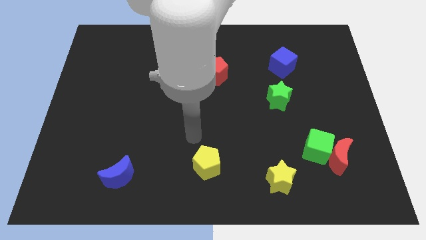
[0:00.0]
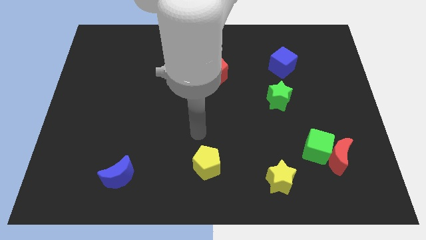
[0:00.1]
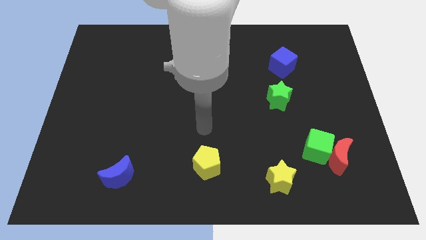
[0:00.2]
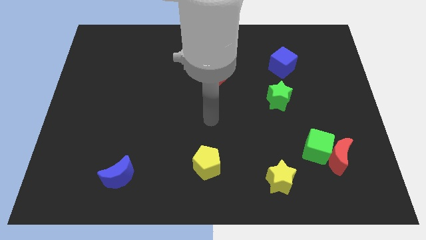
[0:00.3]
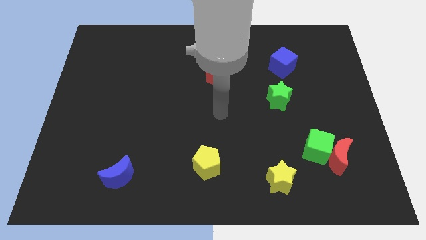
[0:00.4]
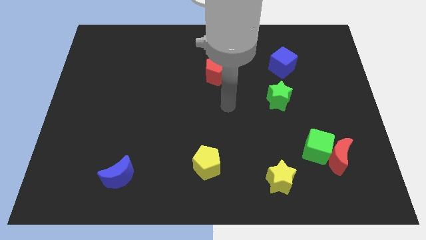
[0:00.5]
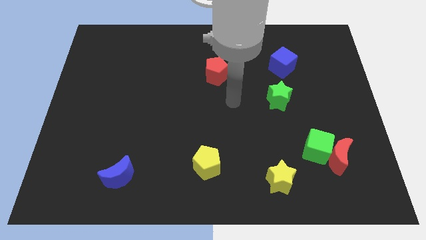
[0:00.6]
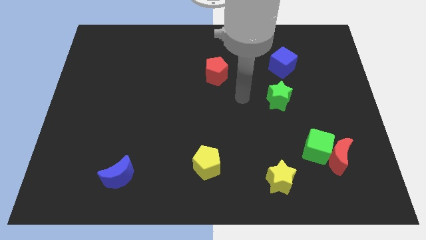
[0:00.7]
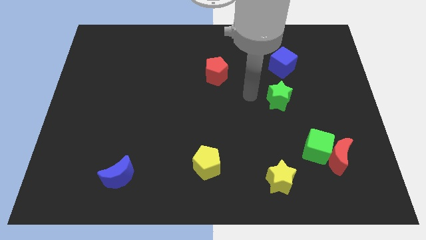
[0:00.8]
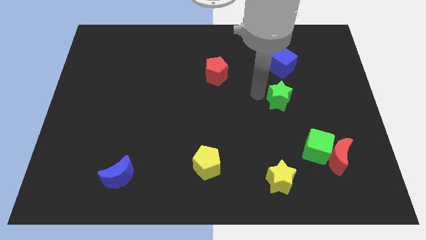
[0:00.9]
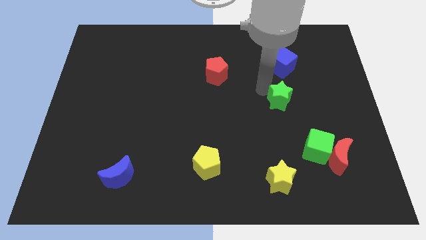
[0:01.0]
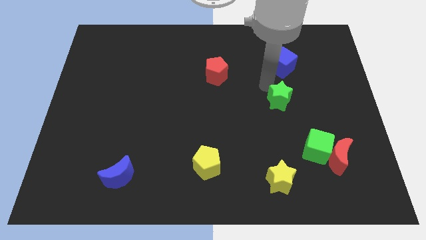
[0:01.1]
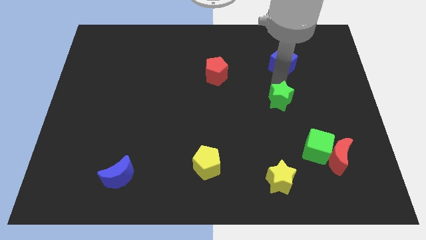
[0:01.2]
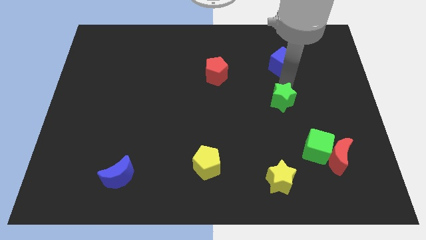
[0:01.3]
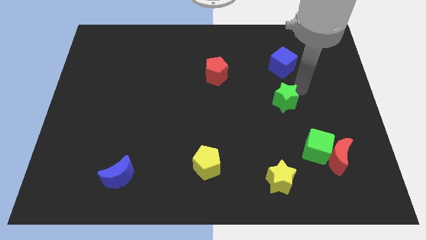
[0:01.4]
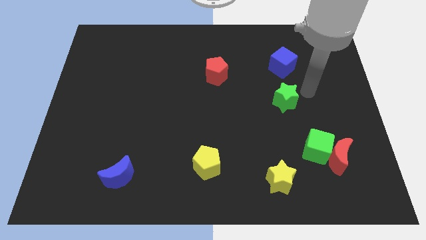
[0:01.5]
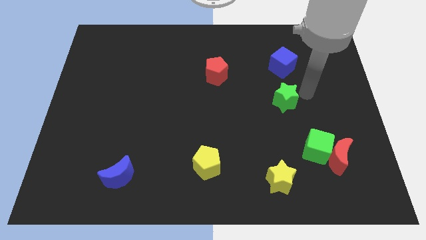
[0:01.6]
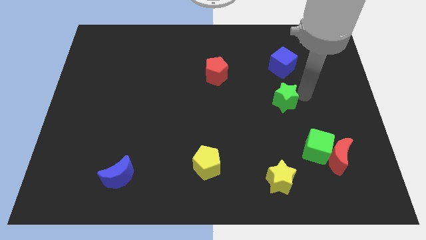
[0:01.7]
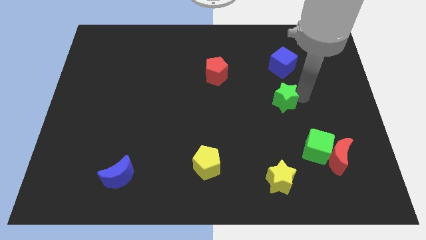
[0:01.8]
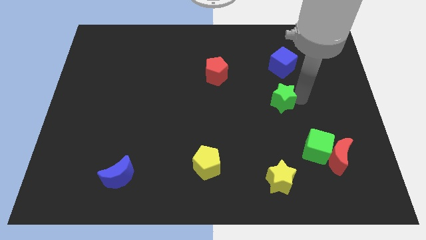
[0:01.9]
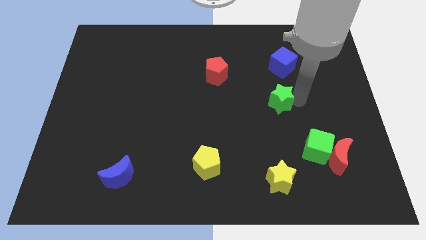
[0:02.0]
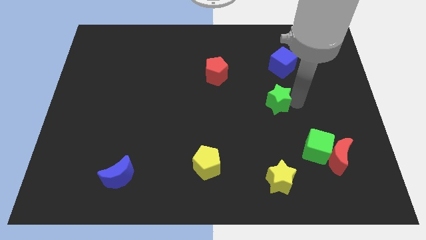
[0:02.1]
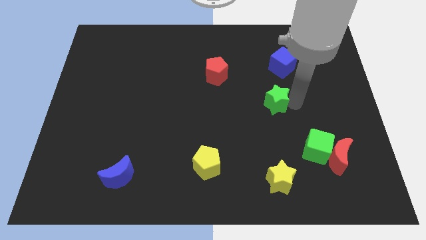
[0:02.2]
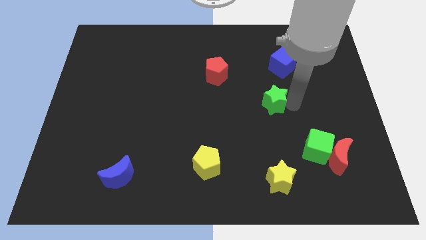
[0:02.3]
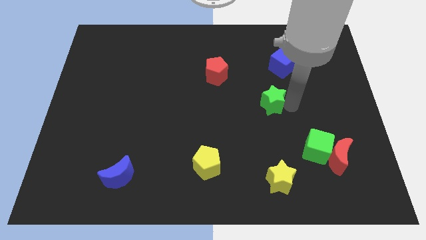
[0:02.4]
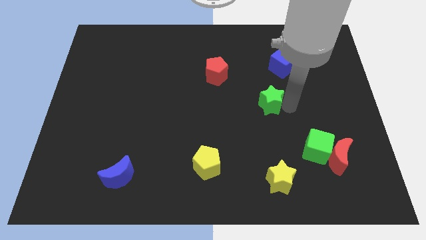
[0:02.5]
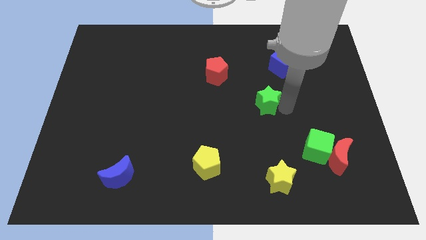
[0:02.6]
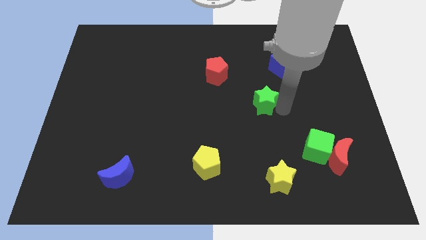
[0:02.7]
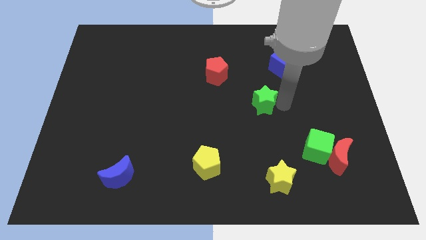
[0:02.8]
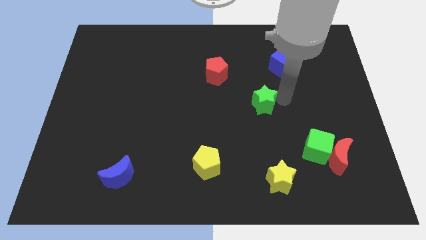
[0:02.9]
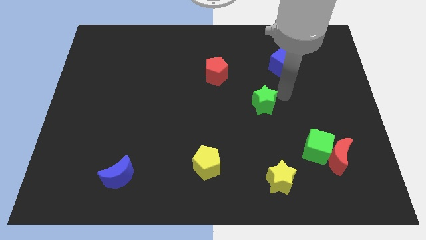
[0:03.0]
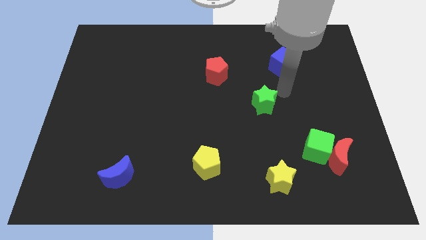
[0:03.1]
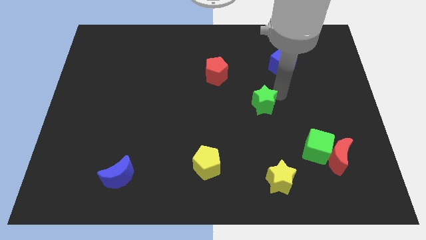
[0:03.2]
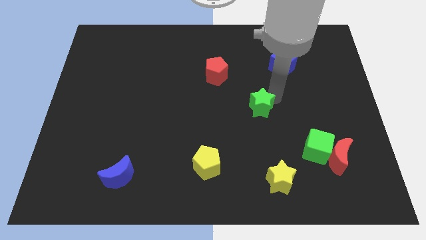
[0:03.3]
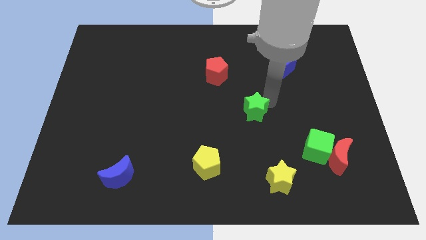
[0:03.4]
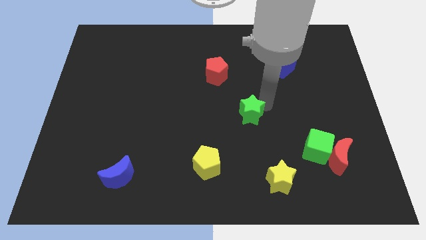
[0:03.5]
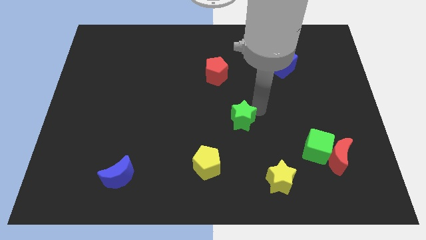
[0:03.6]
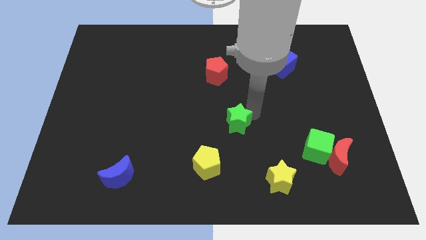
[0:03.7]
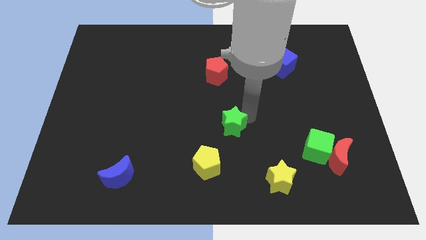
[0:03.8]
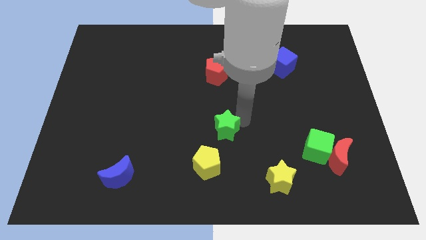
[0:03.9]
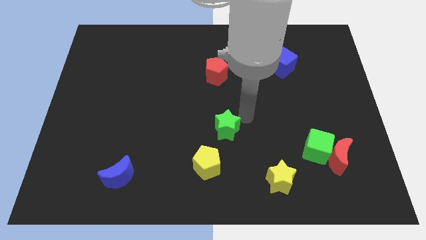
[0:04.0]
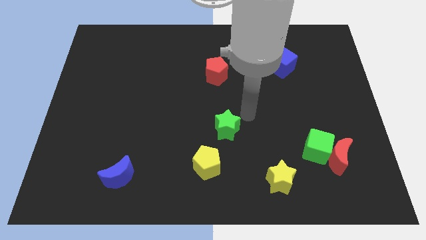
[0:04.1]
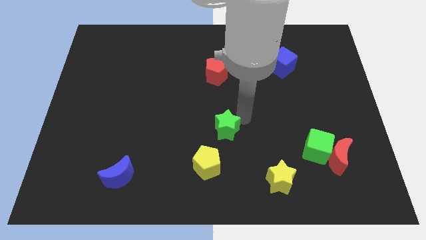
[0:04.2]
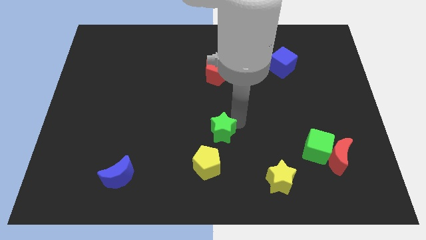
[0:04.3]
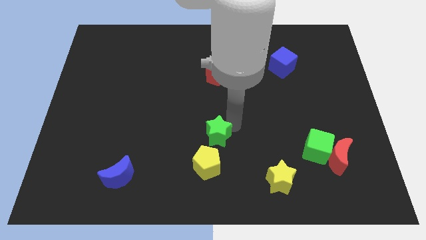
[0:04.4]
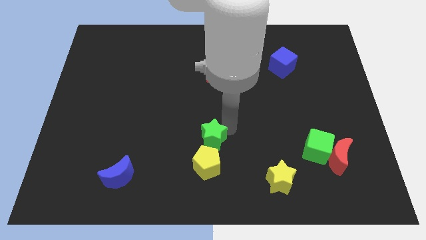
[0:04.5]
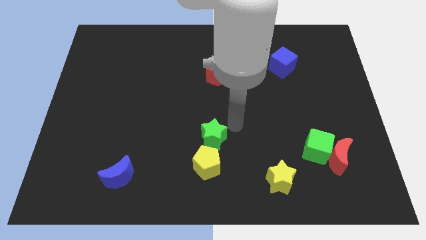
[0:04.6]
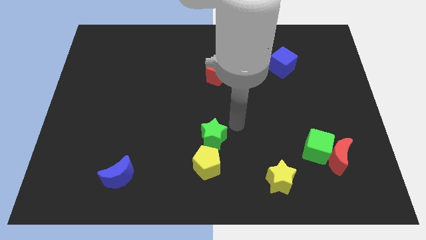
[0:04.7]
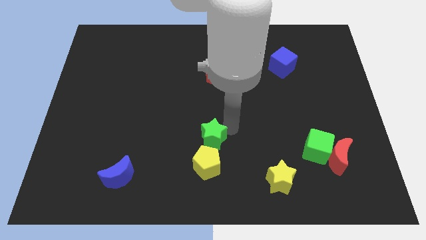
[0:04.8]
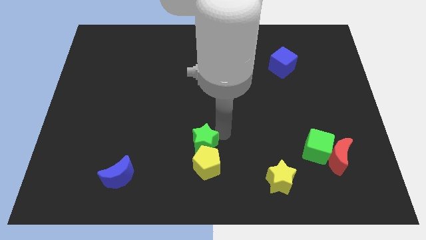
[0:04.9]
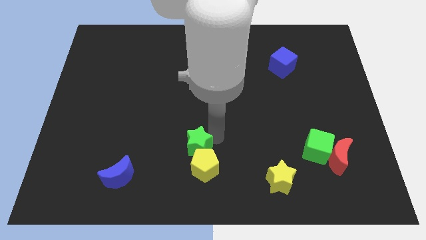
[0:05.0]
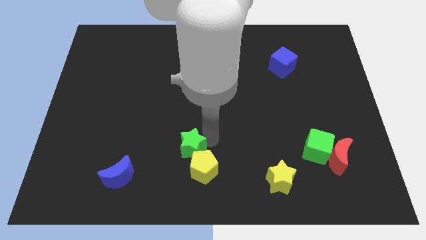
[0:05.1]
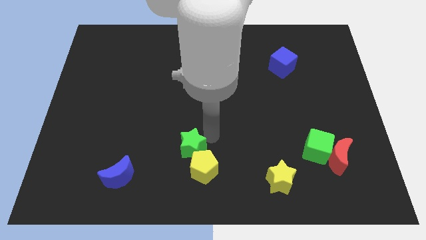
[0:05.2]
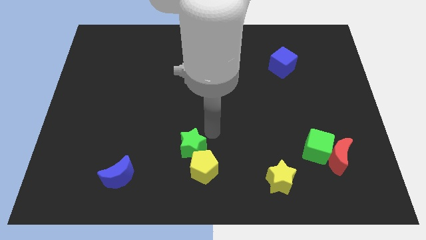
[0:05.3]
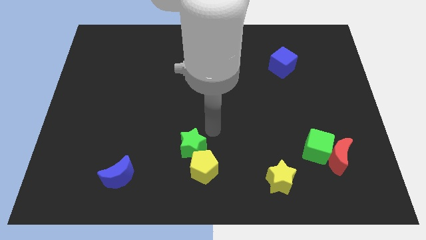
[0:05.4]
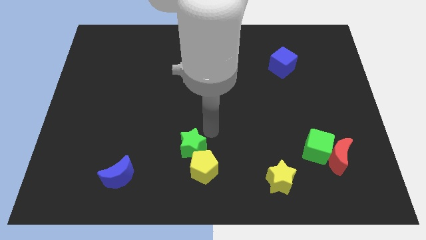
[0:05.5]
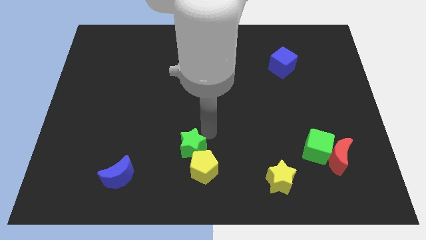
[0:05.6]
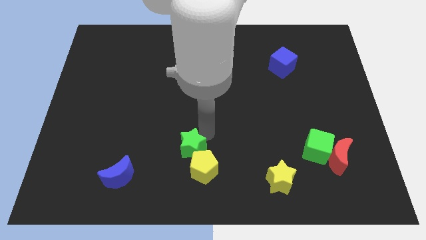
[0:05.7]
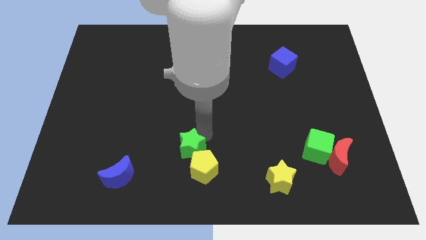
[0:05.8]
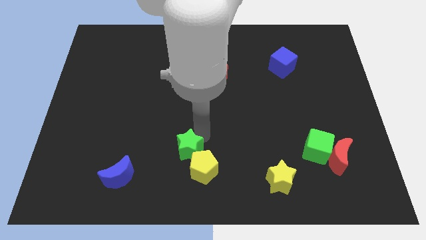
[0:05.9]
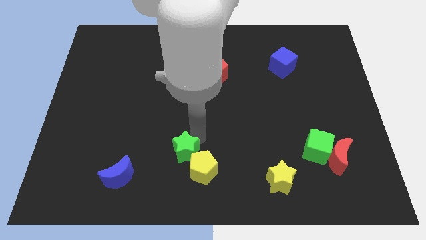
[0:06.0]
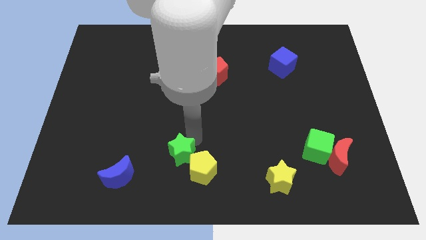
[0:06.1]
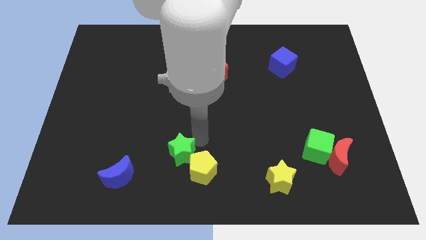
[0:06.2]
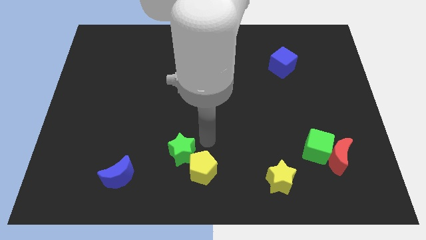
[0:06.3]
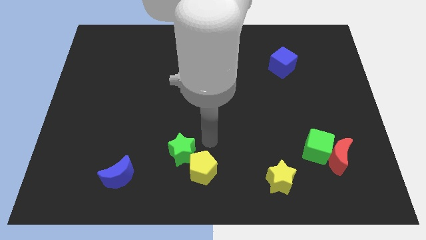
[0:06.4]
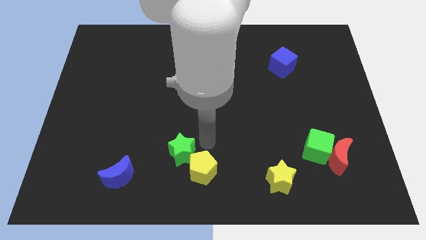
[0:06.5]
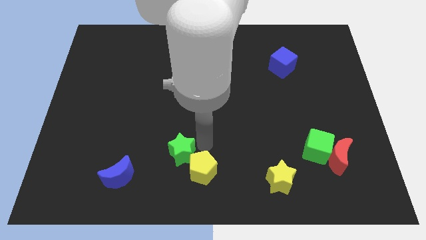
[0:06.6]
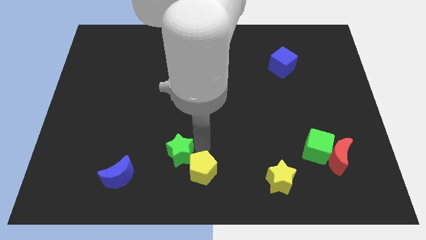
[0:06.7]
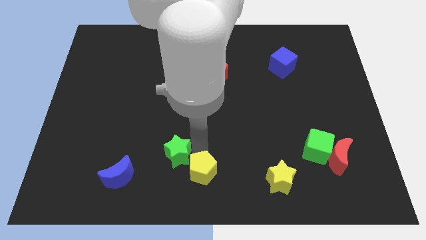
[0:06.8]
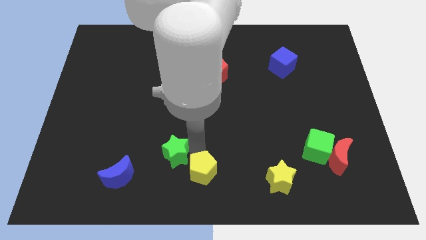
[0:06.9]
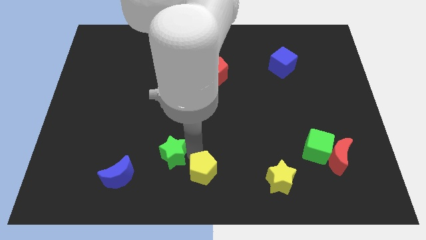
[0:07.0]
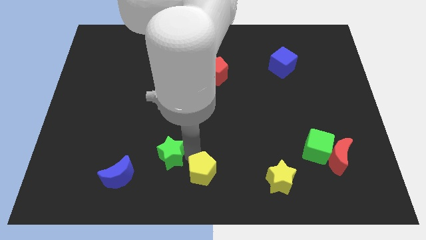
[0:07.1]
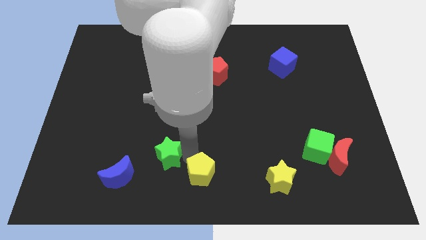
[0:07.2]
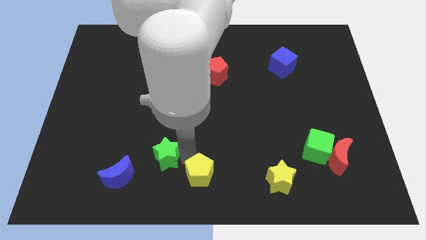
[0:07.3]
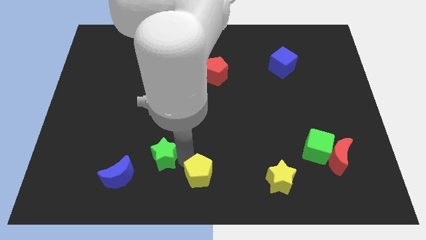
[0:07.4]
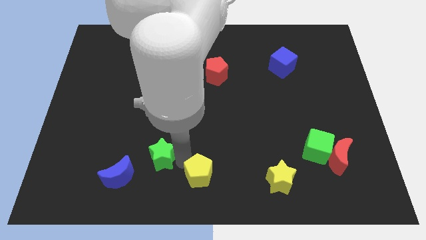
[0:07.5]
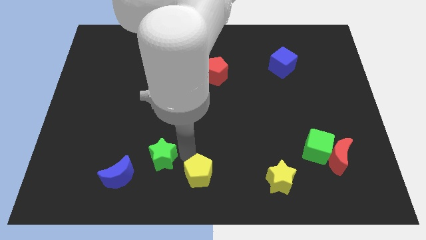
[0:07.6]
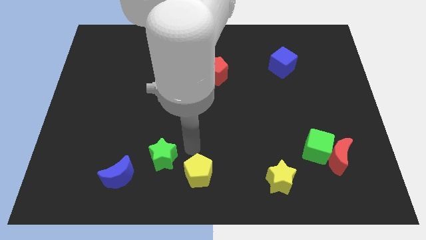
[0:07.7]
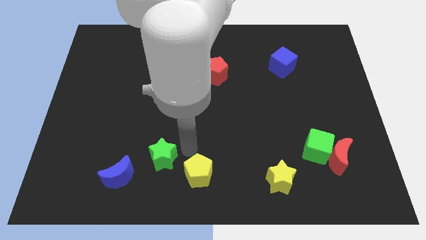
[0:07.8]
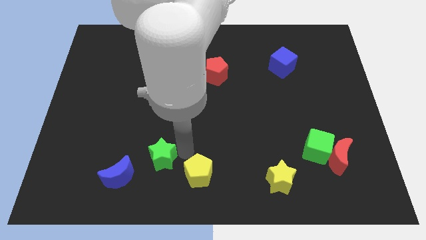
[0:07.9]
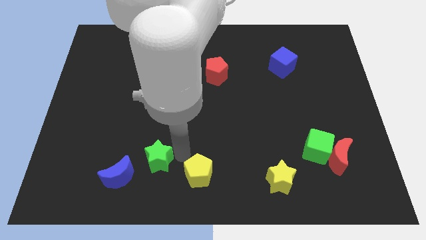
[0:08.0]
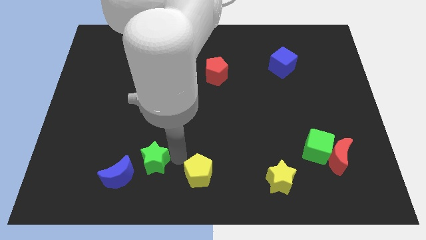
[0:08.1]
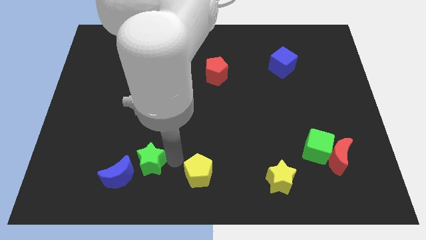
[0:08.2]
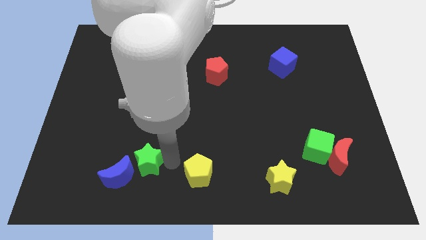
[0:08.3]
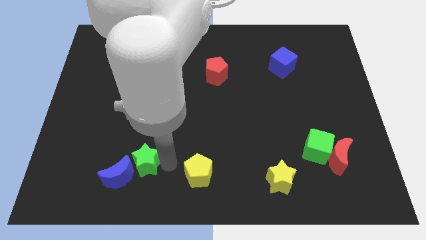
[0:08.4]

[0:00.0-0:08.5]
push the green star to the blue moon
